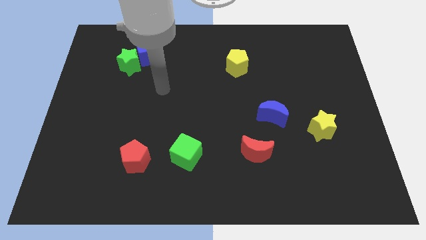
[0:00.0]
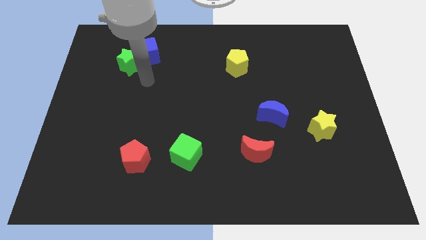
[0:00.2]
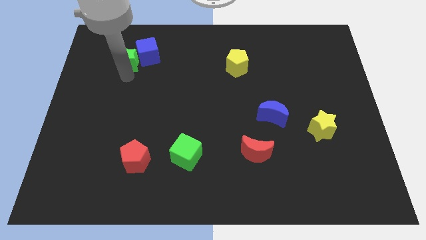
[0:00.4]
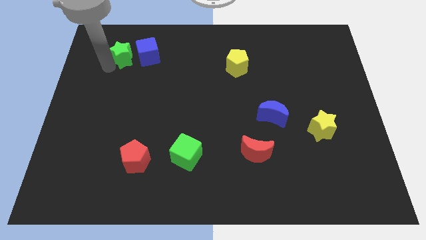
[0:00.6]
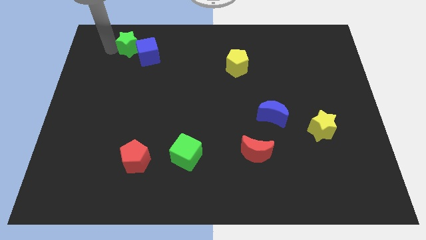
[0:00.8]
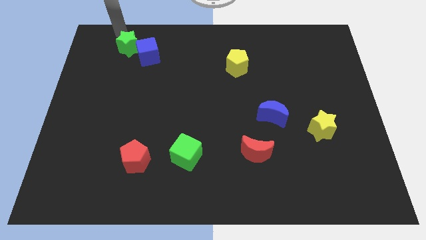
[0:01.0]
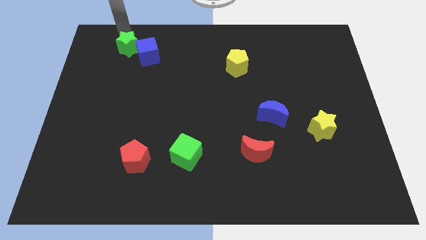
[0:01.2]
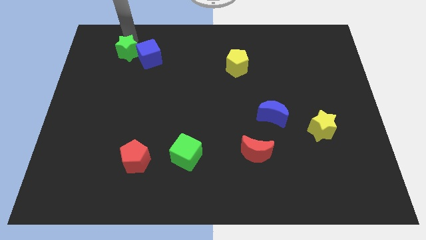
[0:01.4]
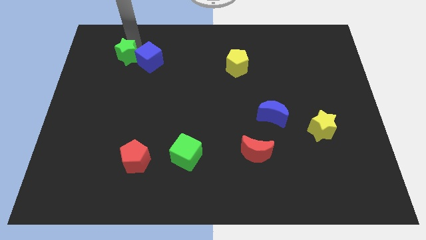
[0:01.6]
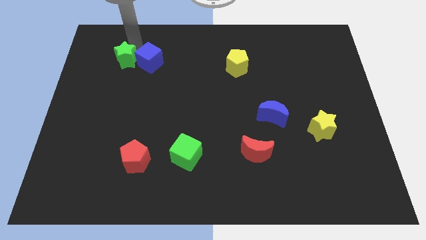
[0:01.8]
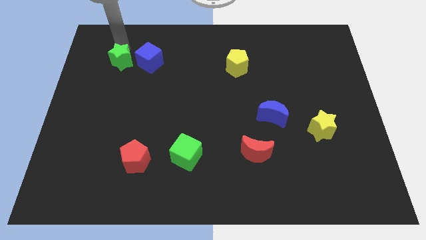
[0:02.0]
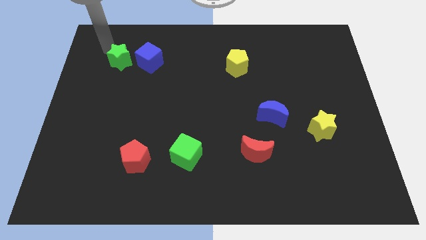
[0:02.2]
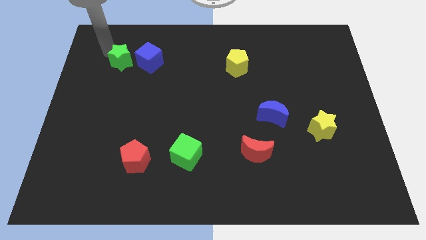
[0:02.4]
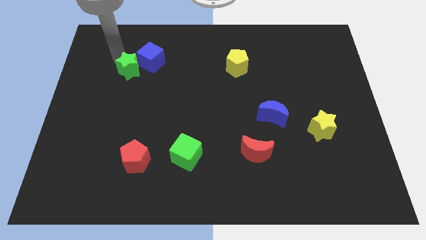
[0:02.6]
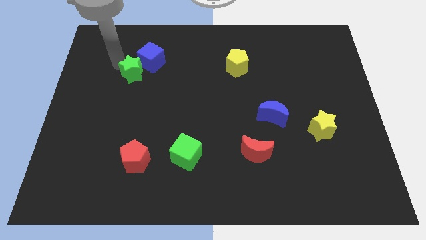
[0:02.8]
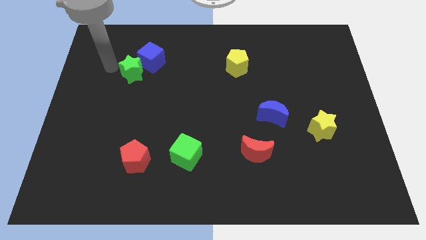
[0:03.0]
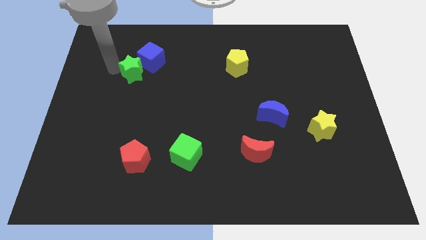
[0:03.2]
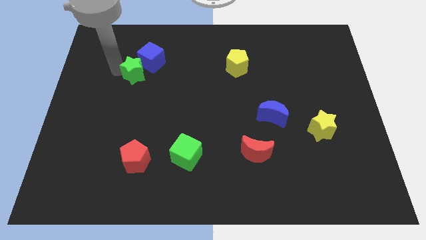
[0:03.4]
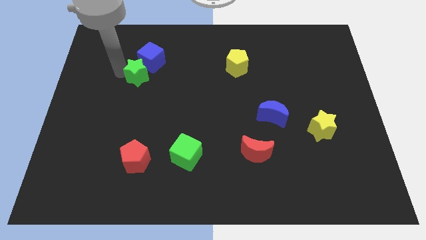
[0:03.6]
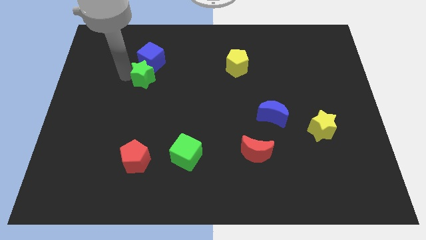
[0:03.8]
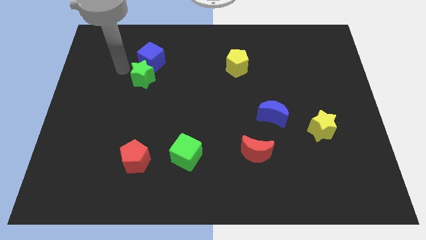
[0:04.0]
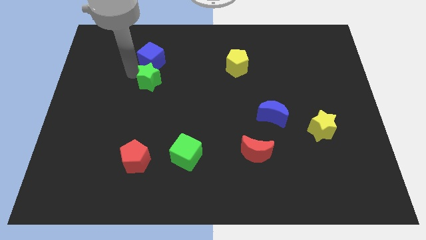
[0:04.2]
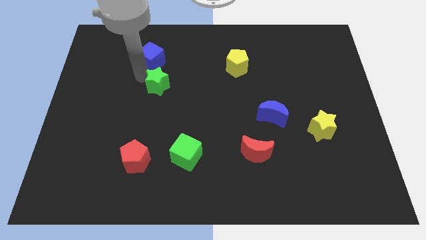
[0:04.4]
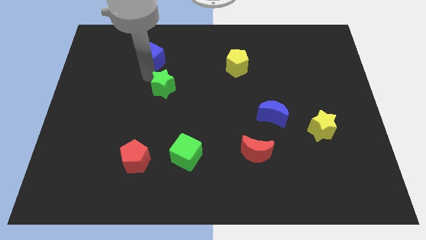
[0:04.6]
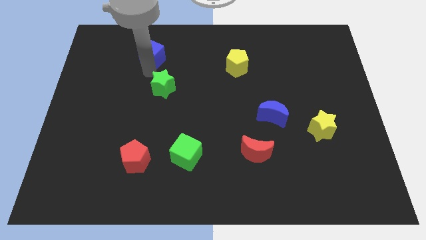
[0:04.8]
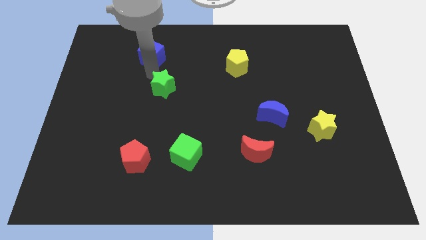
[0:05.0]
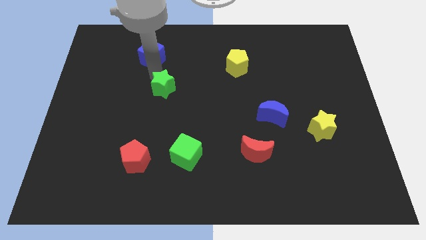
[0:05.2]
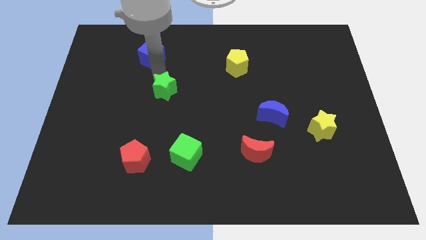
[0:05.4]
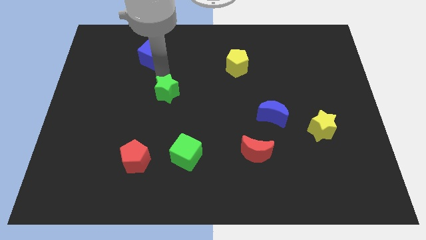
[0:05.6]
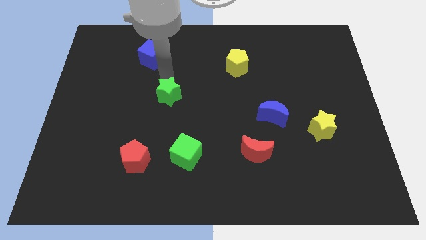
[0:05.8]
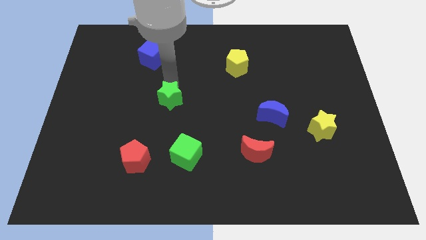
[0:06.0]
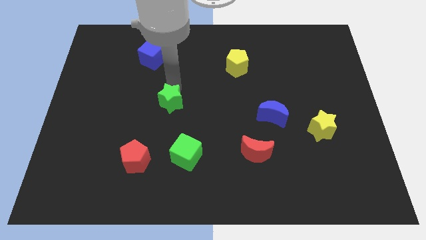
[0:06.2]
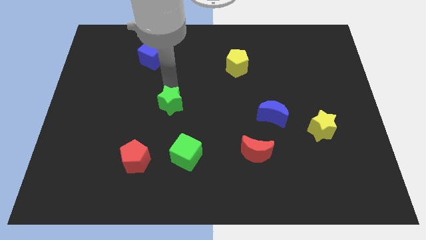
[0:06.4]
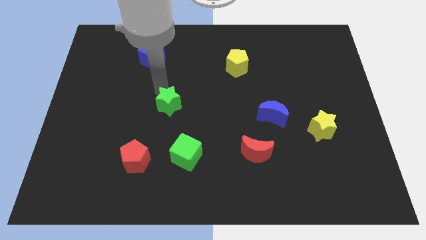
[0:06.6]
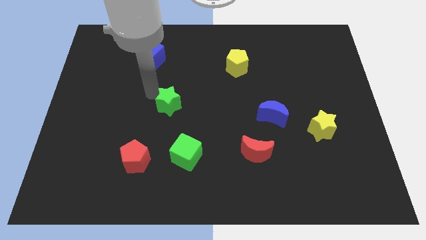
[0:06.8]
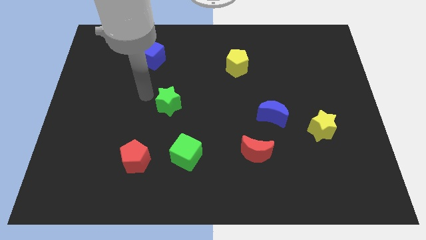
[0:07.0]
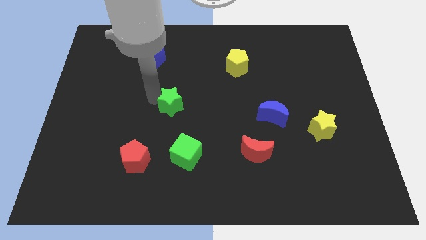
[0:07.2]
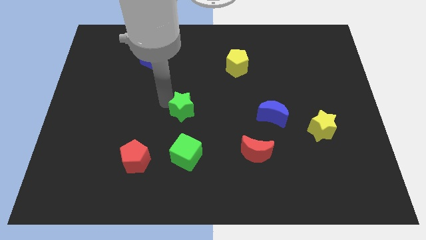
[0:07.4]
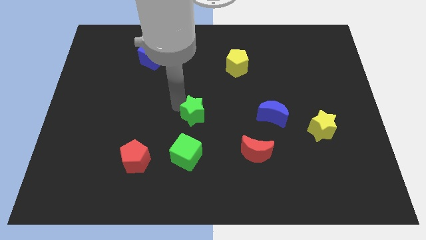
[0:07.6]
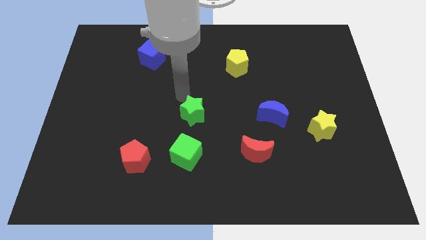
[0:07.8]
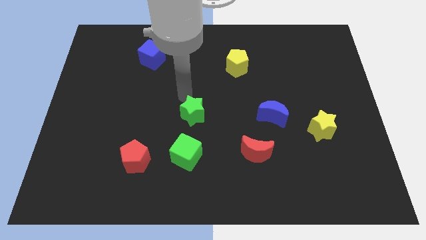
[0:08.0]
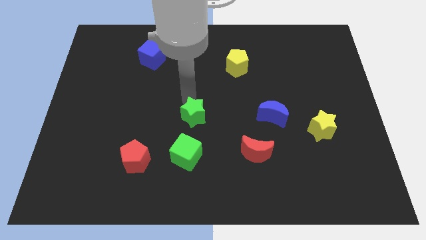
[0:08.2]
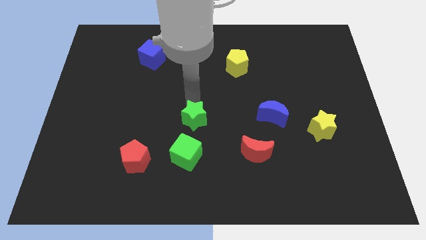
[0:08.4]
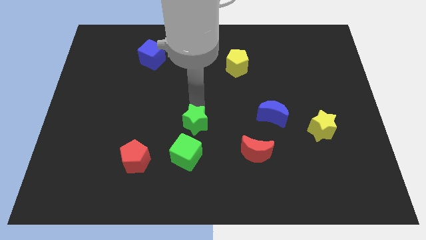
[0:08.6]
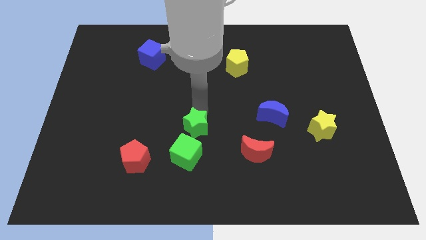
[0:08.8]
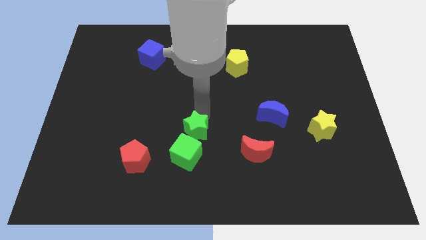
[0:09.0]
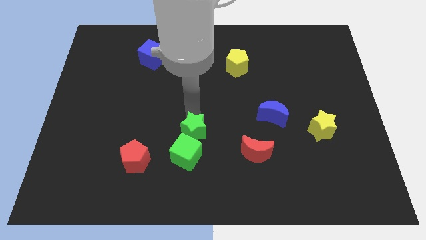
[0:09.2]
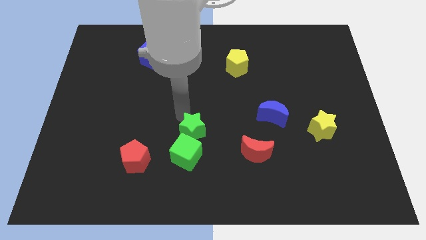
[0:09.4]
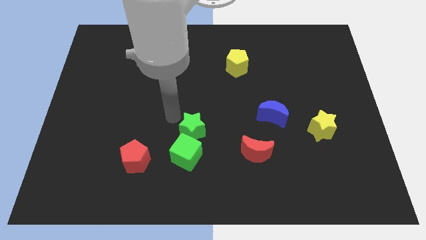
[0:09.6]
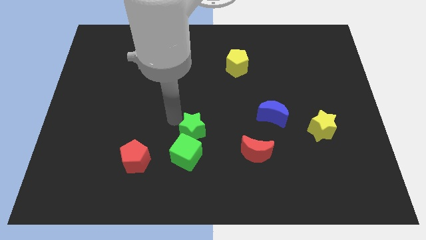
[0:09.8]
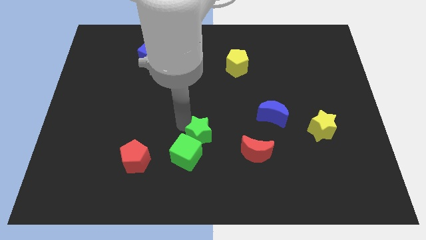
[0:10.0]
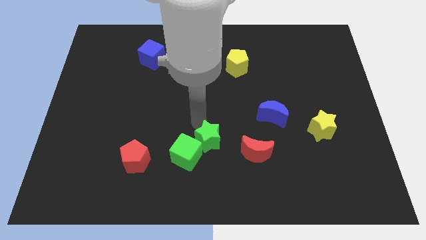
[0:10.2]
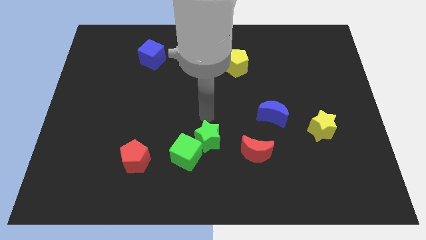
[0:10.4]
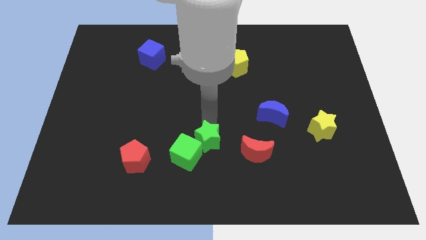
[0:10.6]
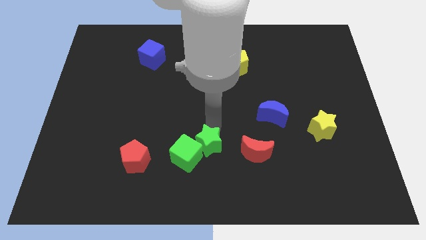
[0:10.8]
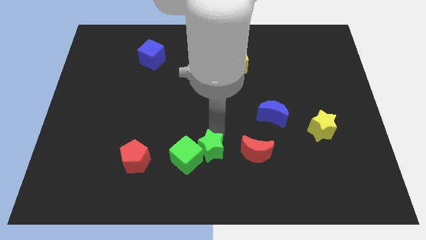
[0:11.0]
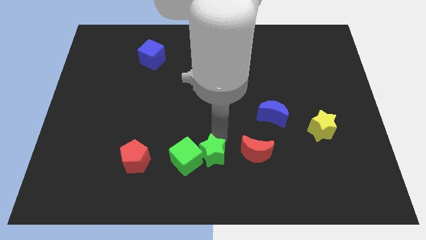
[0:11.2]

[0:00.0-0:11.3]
push the green star to the bottom

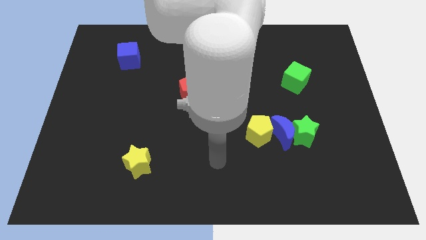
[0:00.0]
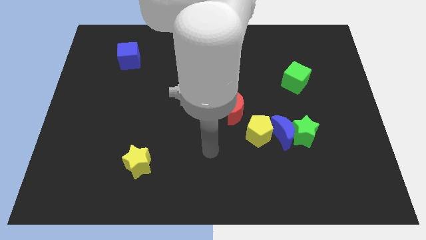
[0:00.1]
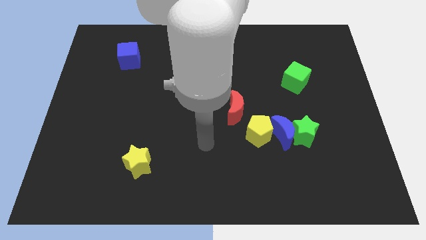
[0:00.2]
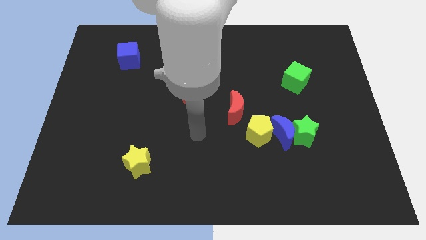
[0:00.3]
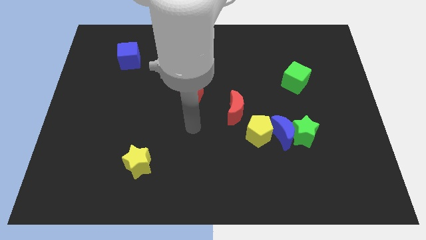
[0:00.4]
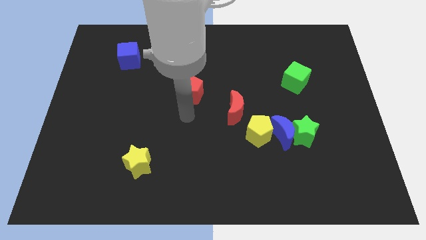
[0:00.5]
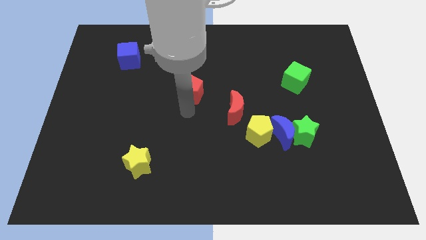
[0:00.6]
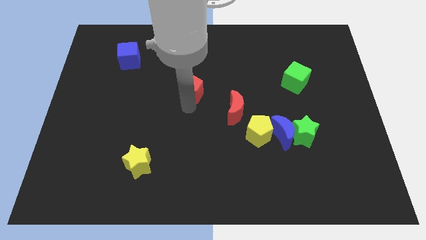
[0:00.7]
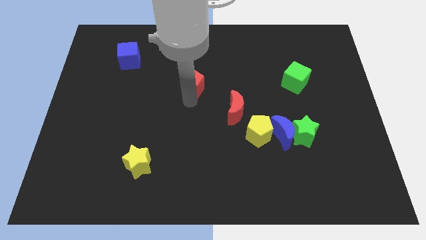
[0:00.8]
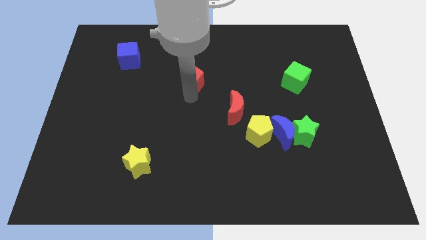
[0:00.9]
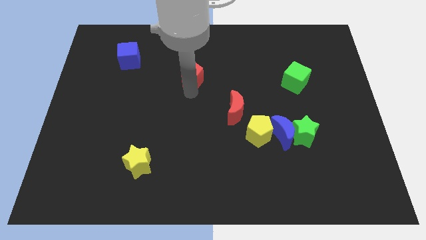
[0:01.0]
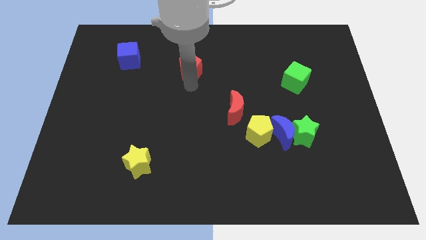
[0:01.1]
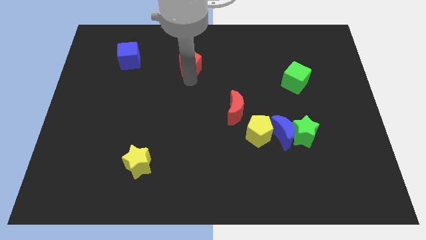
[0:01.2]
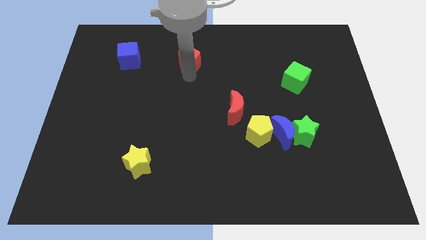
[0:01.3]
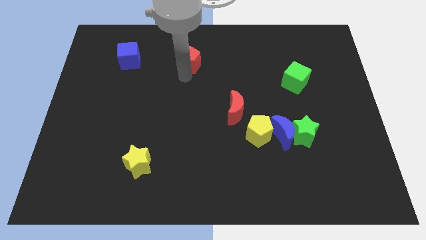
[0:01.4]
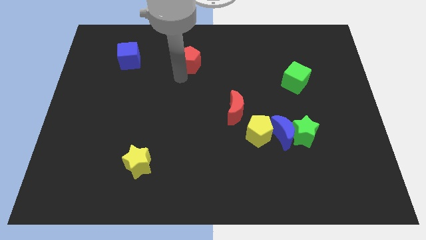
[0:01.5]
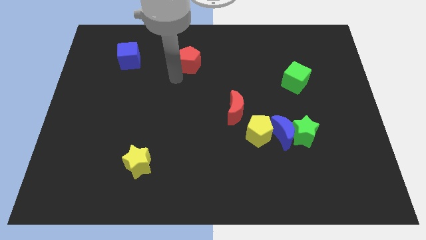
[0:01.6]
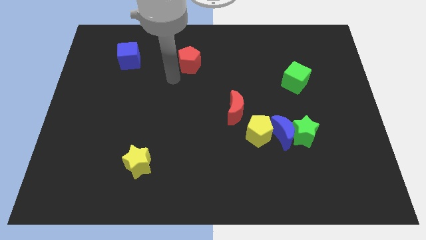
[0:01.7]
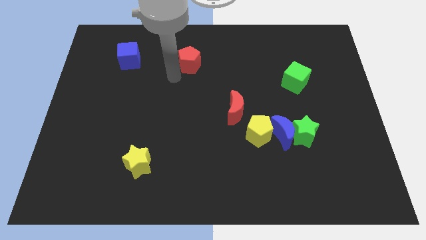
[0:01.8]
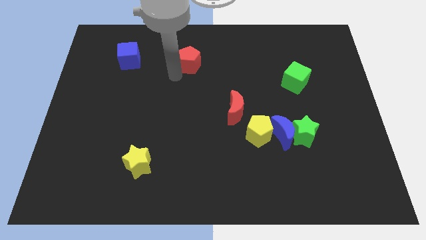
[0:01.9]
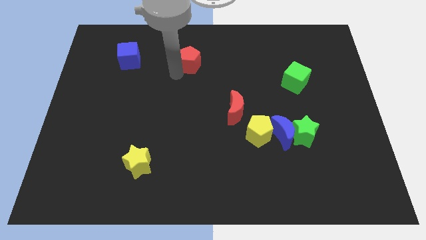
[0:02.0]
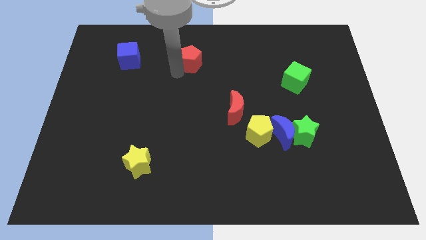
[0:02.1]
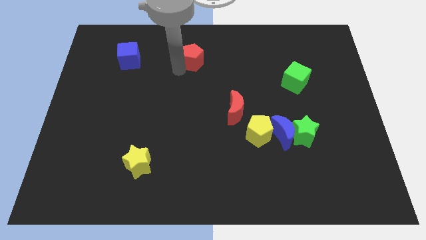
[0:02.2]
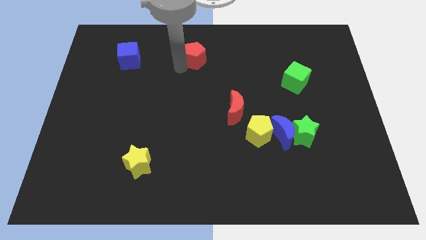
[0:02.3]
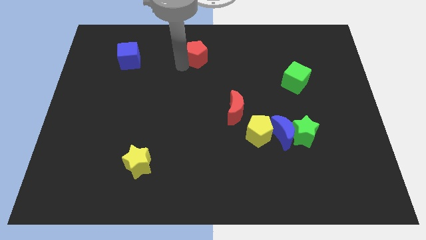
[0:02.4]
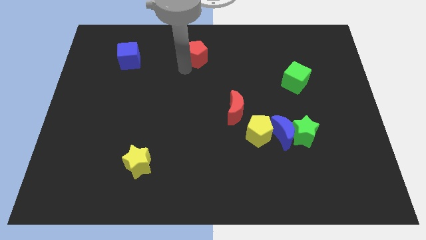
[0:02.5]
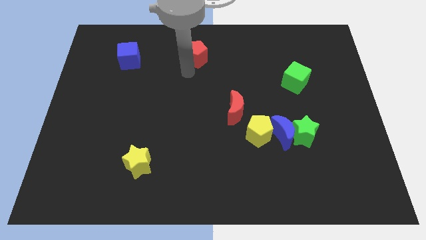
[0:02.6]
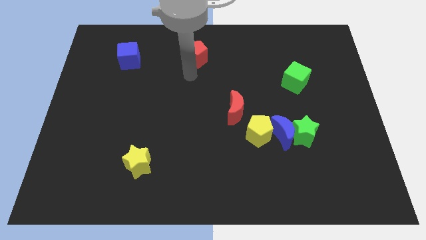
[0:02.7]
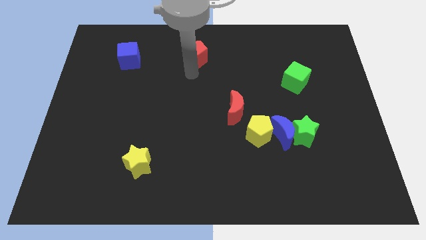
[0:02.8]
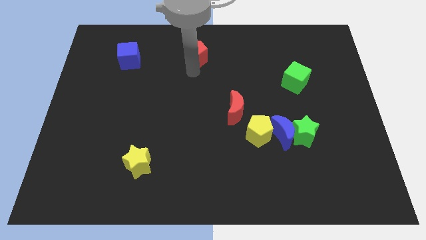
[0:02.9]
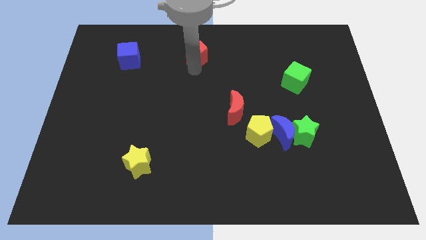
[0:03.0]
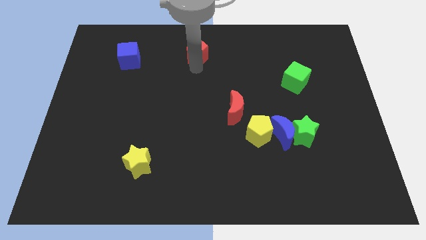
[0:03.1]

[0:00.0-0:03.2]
put the red pentagon to the top
